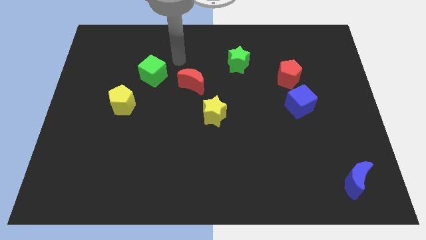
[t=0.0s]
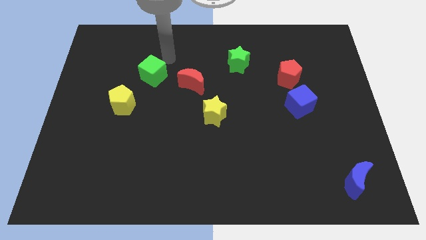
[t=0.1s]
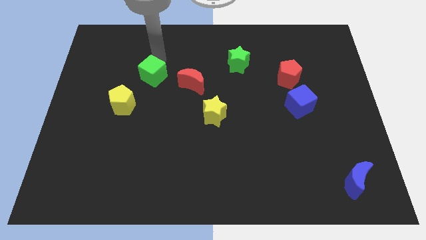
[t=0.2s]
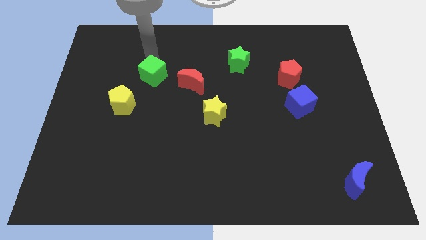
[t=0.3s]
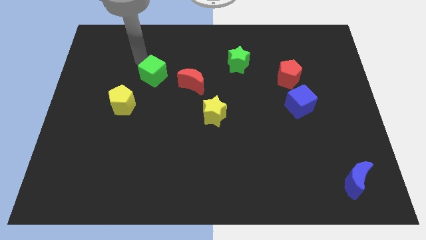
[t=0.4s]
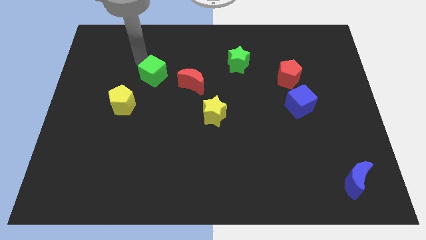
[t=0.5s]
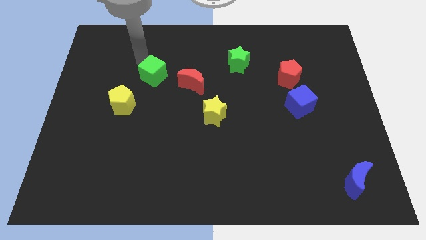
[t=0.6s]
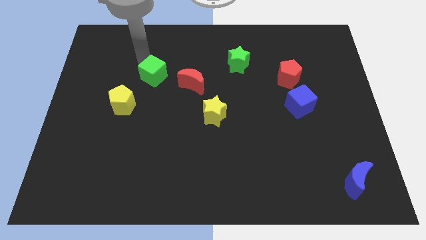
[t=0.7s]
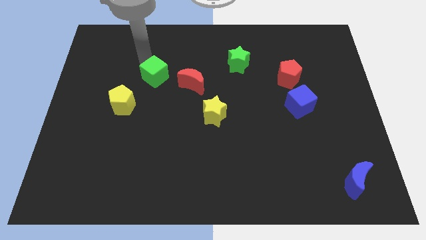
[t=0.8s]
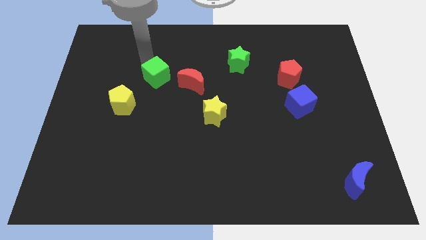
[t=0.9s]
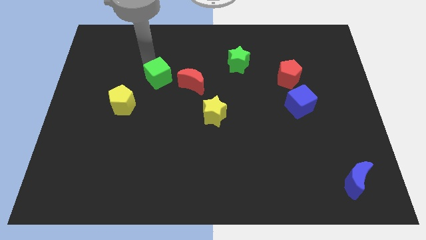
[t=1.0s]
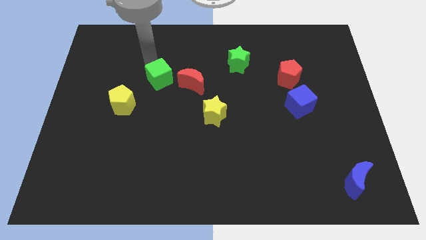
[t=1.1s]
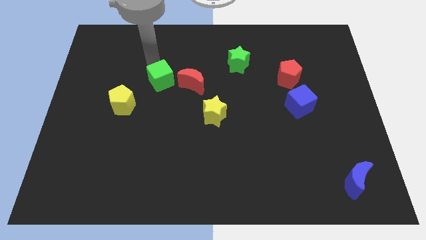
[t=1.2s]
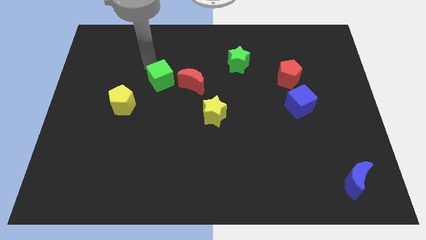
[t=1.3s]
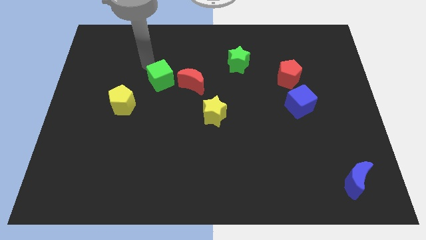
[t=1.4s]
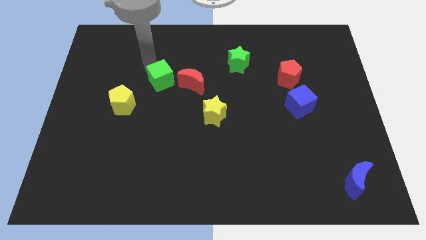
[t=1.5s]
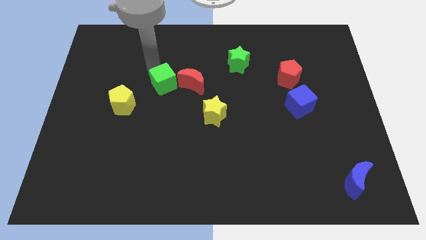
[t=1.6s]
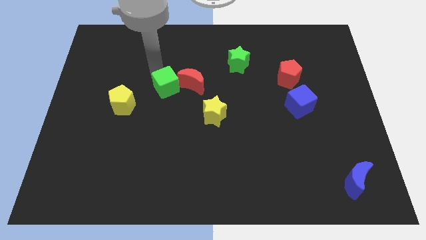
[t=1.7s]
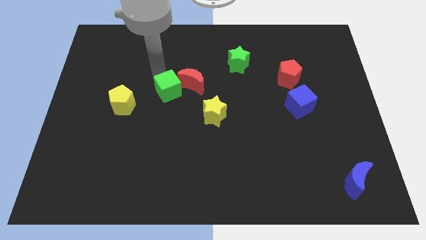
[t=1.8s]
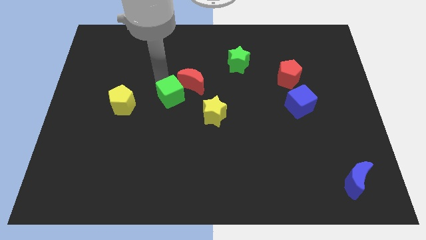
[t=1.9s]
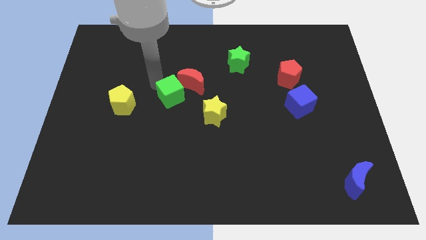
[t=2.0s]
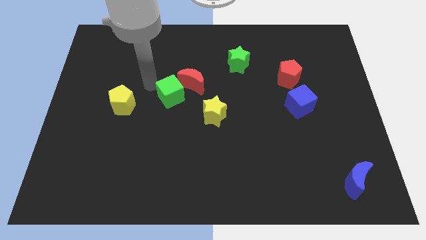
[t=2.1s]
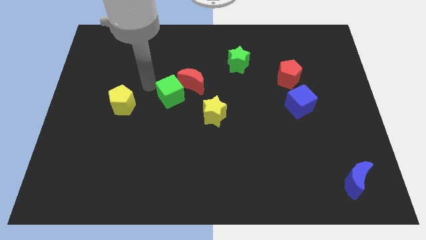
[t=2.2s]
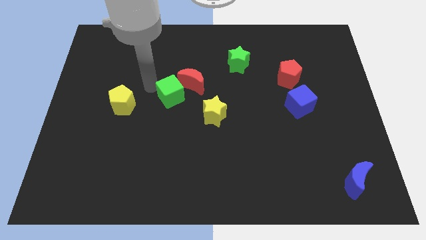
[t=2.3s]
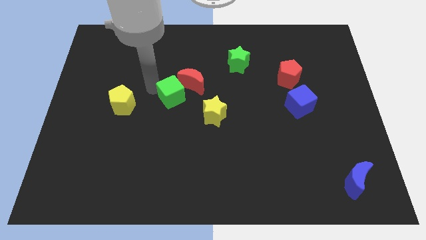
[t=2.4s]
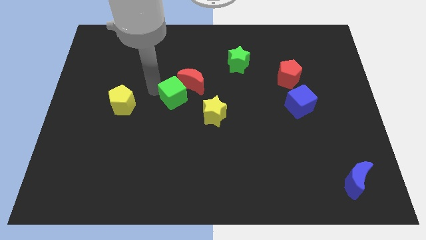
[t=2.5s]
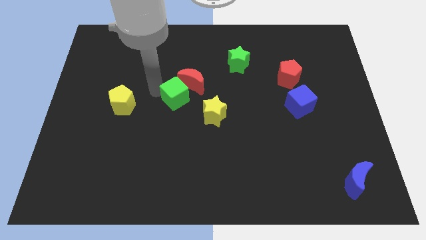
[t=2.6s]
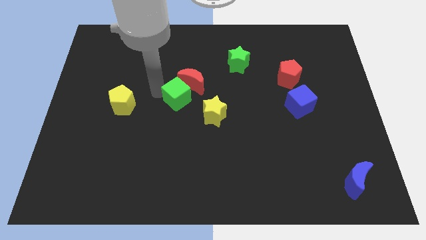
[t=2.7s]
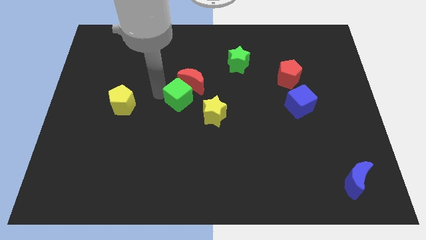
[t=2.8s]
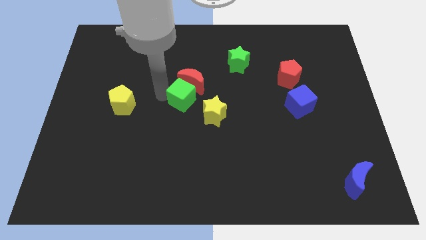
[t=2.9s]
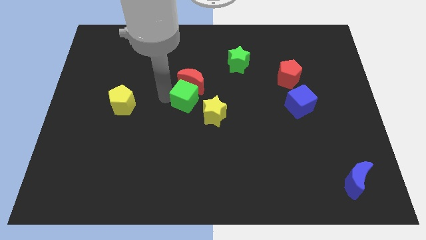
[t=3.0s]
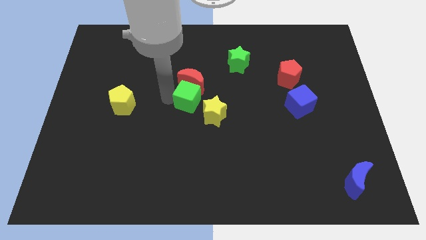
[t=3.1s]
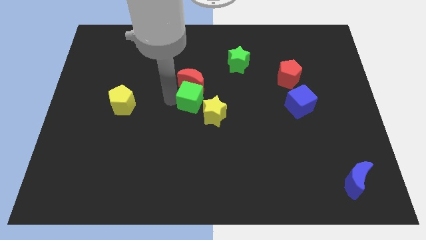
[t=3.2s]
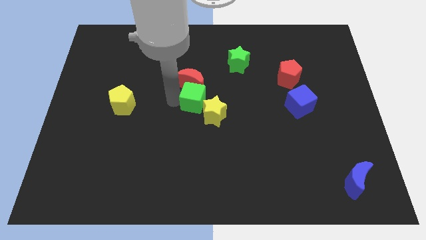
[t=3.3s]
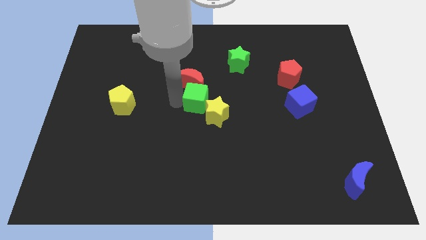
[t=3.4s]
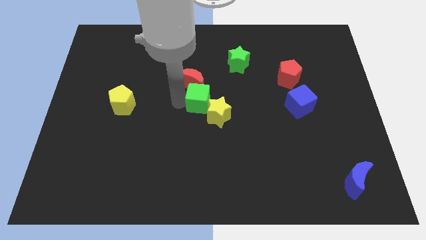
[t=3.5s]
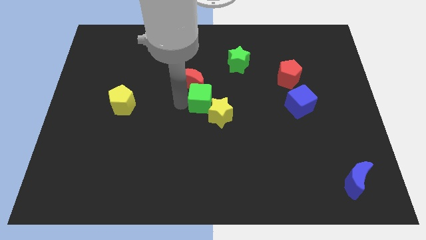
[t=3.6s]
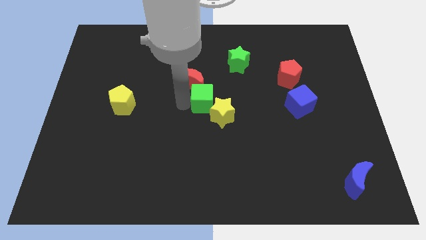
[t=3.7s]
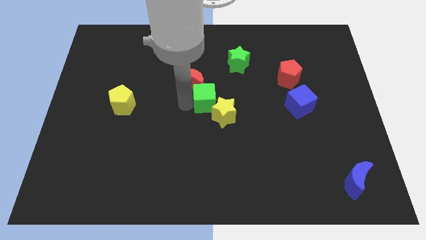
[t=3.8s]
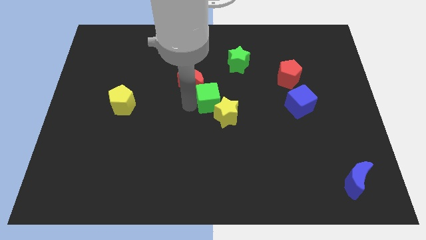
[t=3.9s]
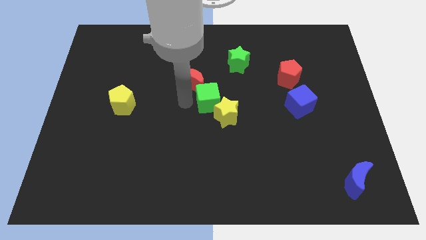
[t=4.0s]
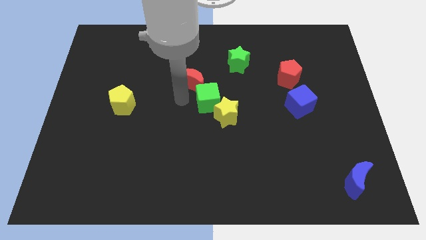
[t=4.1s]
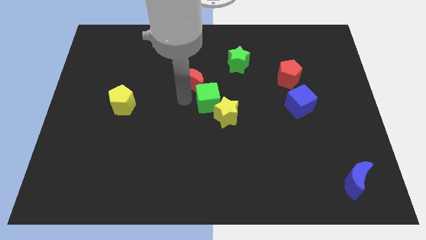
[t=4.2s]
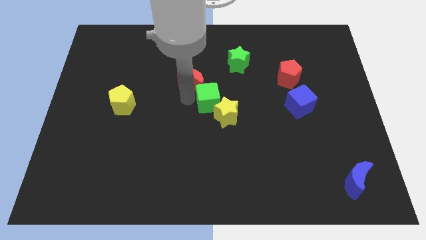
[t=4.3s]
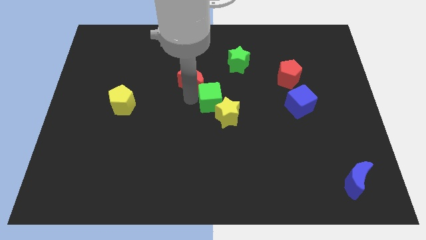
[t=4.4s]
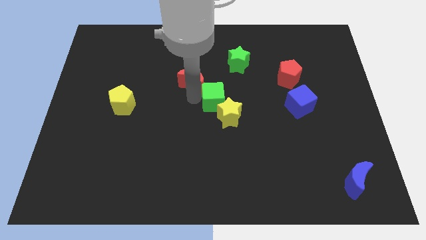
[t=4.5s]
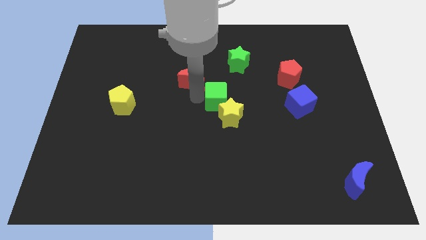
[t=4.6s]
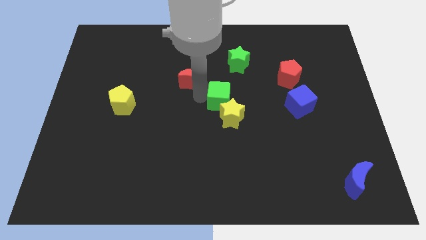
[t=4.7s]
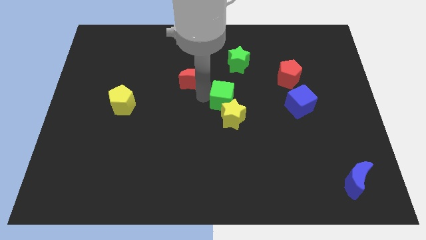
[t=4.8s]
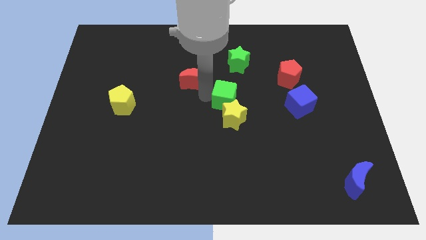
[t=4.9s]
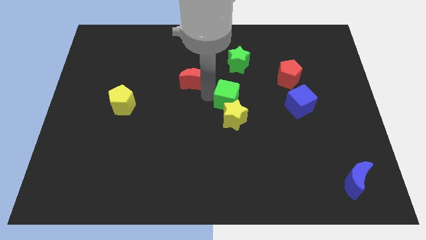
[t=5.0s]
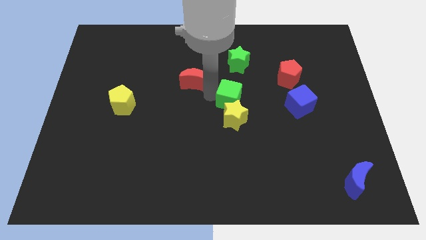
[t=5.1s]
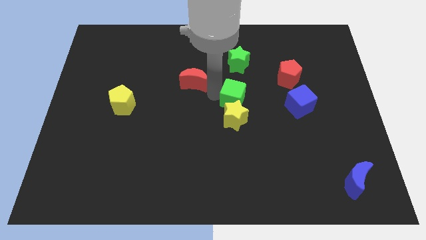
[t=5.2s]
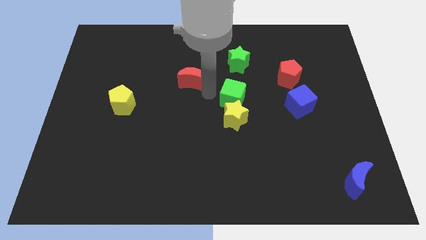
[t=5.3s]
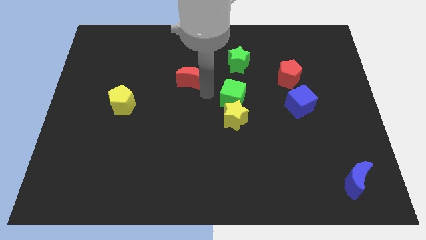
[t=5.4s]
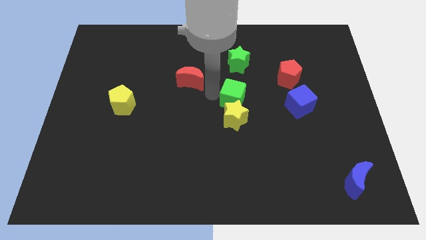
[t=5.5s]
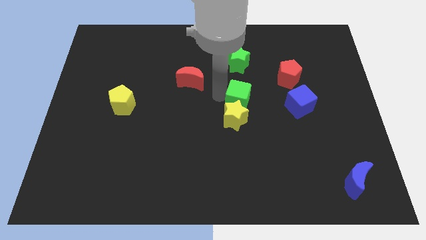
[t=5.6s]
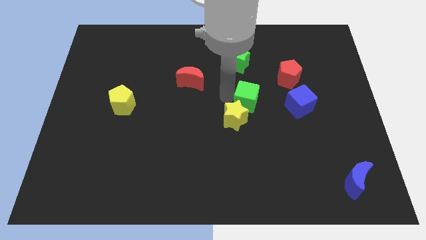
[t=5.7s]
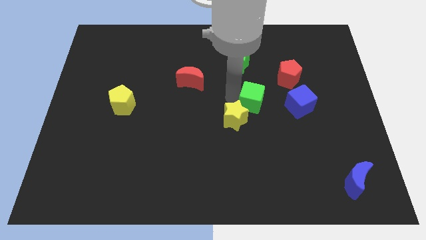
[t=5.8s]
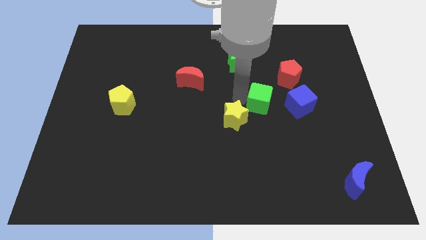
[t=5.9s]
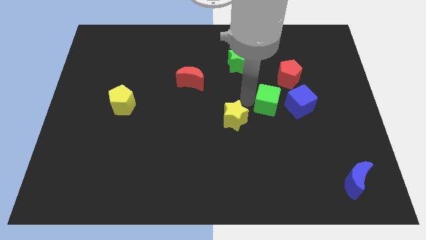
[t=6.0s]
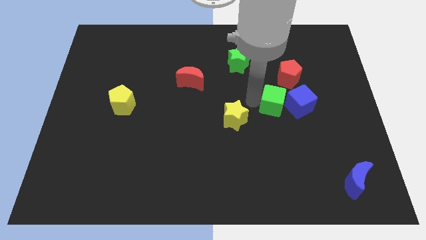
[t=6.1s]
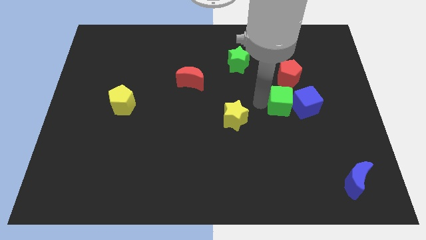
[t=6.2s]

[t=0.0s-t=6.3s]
push the green cube towards the blue cube

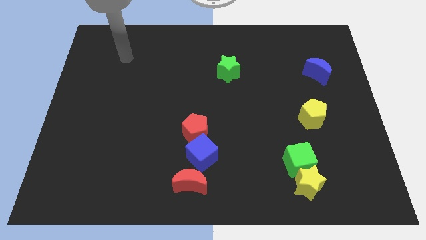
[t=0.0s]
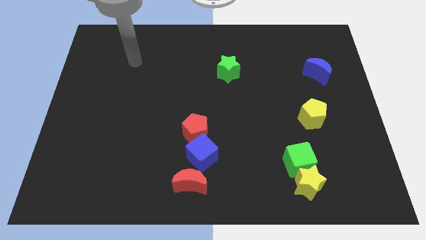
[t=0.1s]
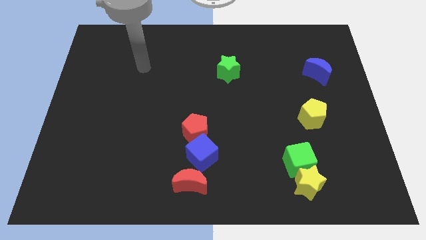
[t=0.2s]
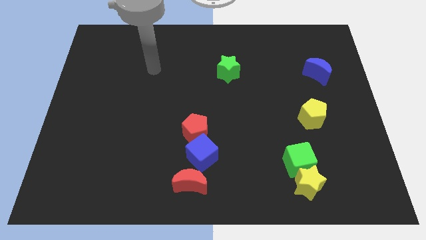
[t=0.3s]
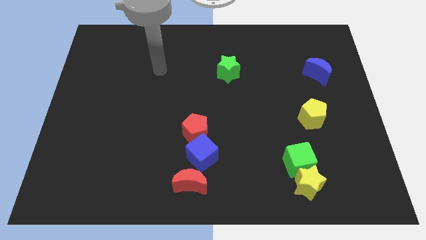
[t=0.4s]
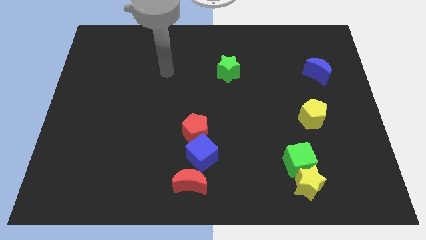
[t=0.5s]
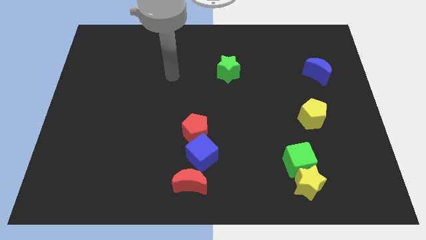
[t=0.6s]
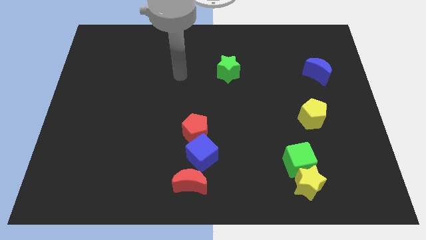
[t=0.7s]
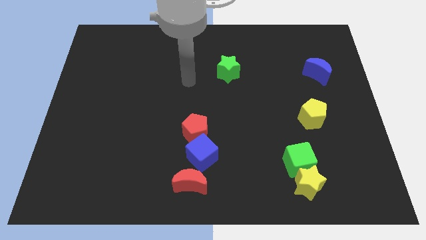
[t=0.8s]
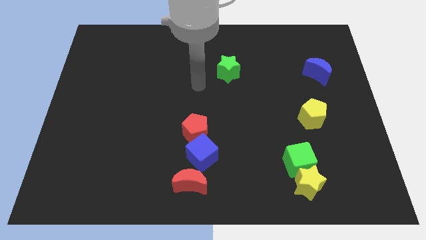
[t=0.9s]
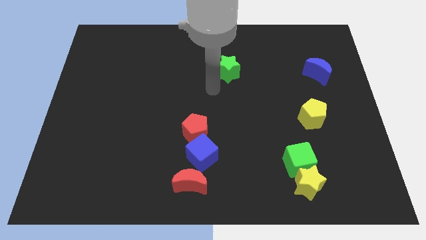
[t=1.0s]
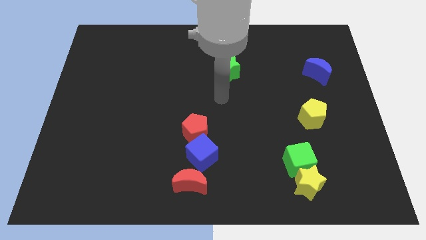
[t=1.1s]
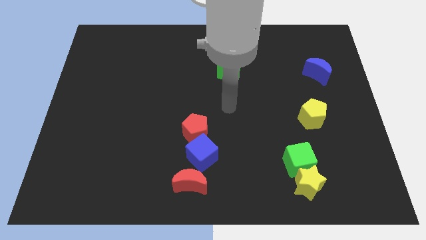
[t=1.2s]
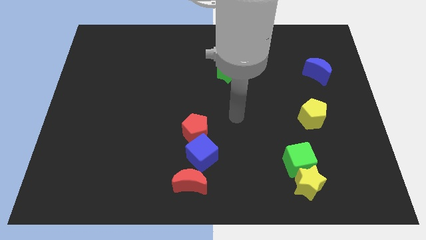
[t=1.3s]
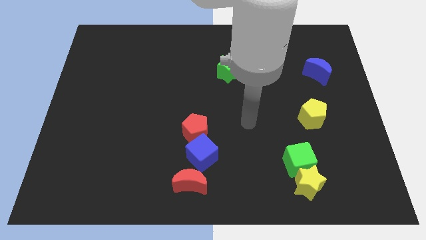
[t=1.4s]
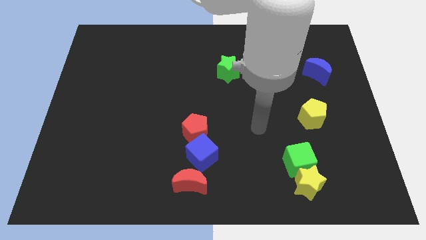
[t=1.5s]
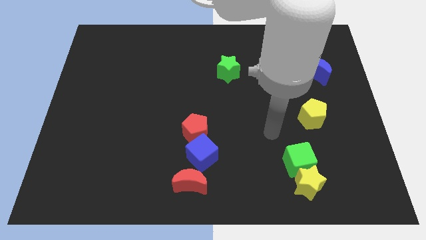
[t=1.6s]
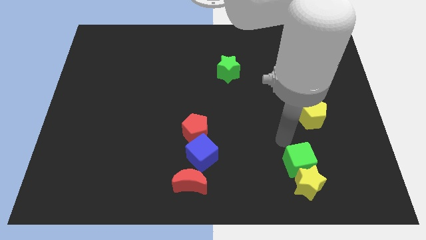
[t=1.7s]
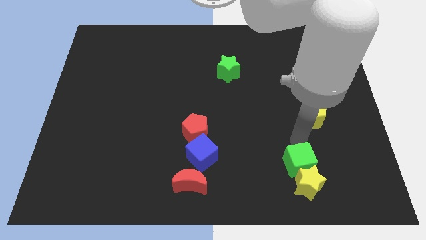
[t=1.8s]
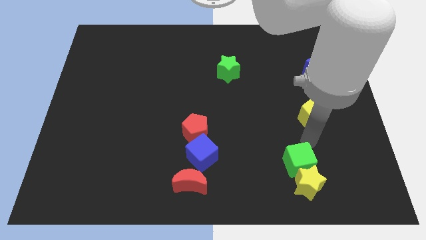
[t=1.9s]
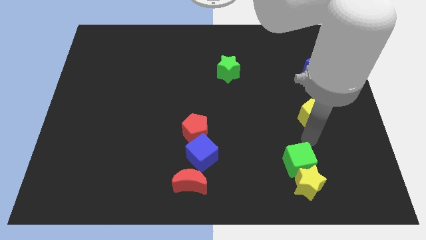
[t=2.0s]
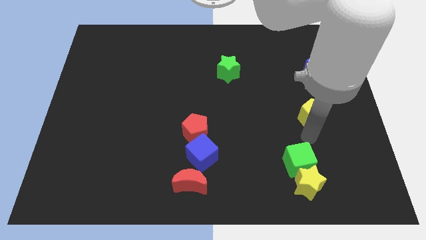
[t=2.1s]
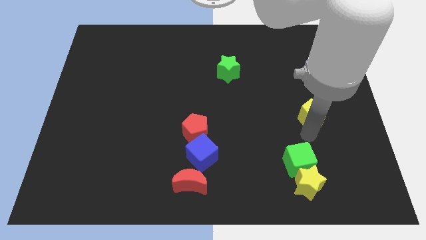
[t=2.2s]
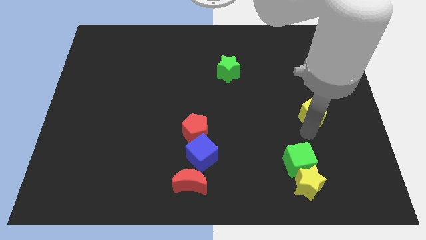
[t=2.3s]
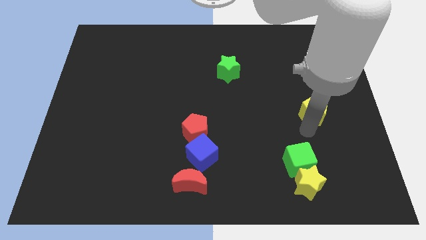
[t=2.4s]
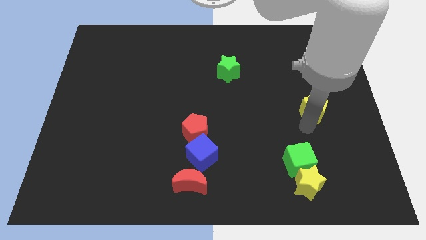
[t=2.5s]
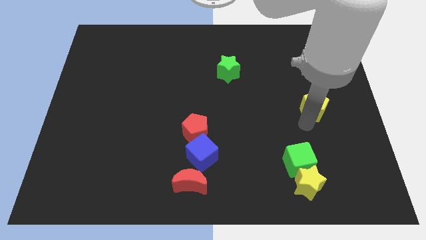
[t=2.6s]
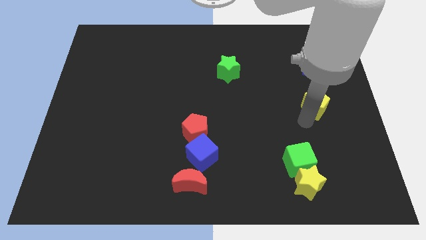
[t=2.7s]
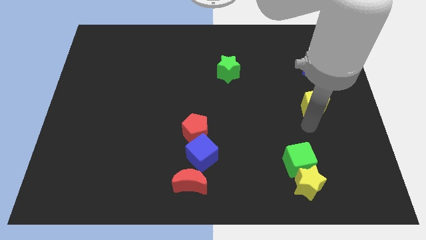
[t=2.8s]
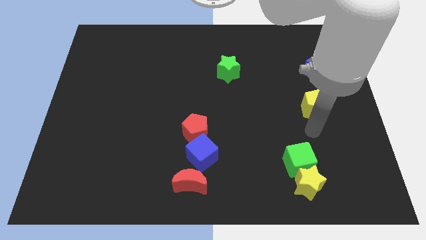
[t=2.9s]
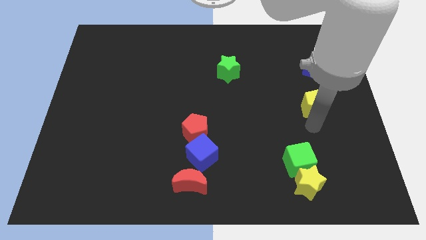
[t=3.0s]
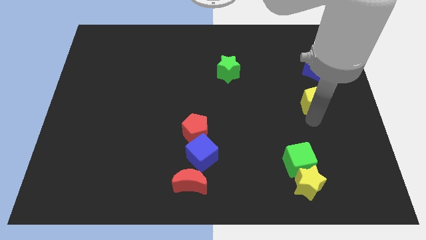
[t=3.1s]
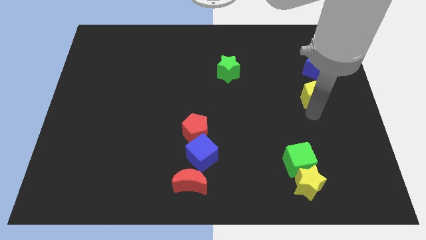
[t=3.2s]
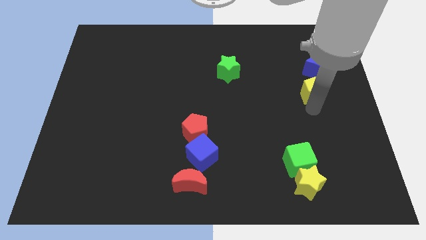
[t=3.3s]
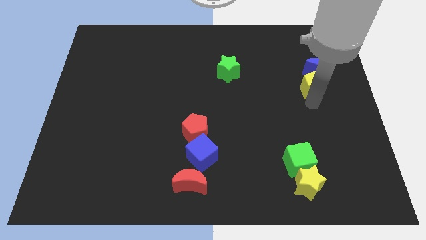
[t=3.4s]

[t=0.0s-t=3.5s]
move the yellow pentagon to the blue moon
